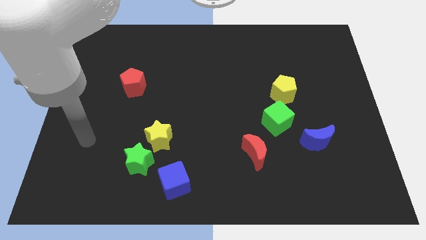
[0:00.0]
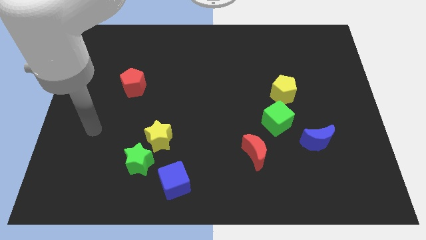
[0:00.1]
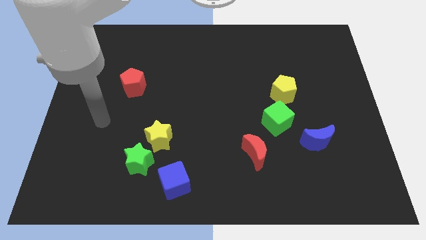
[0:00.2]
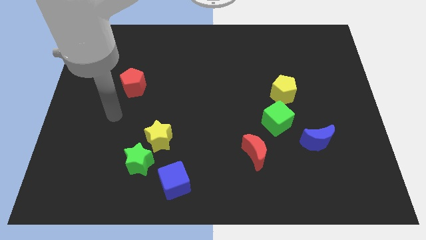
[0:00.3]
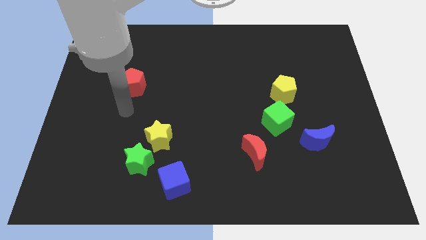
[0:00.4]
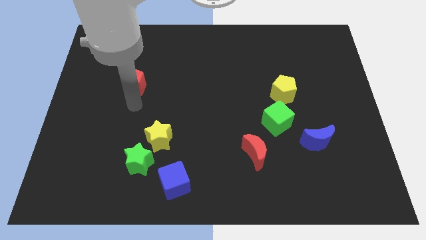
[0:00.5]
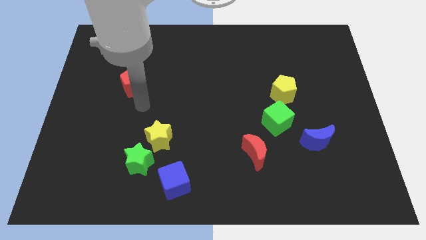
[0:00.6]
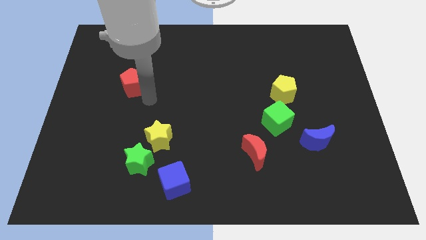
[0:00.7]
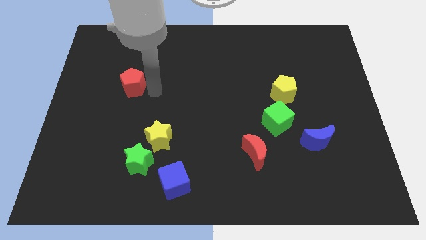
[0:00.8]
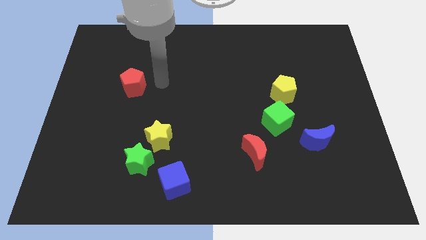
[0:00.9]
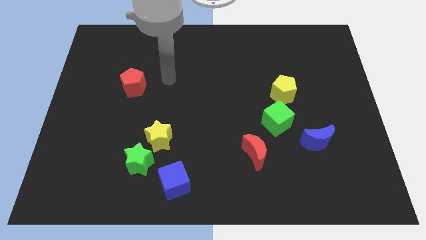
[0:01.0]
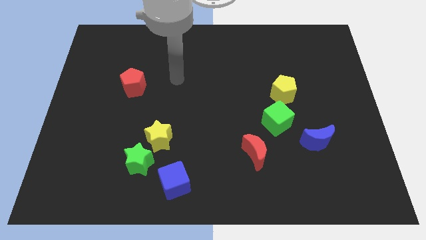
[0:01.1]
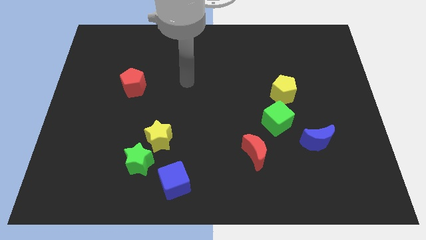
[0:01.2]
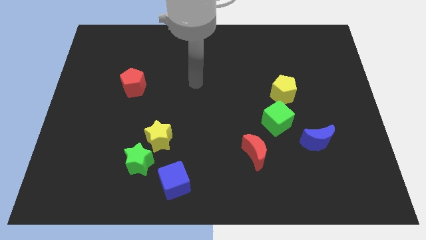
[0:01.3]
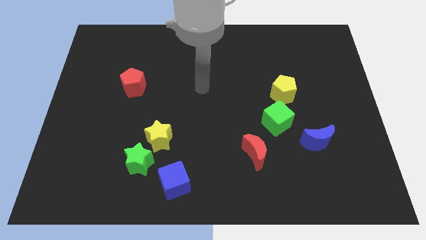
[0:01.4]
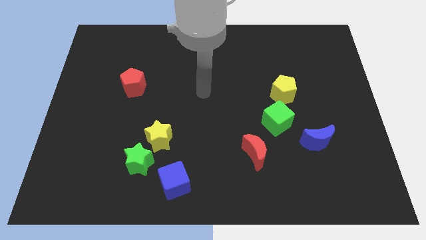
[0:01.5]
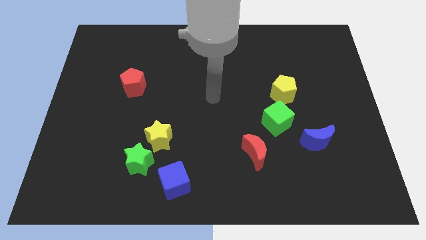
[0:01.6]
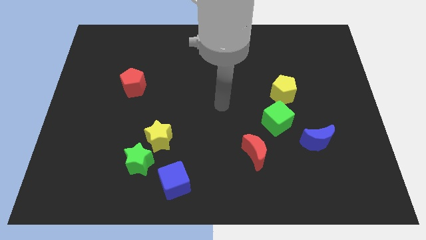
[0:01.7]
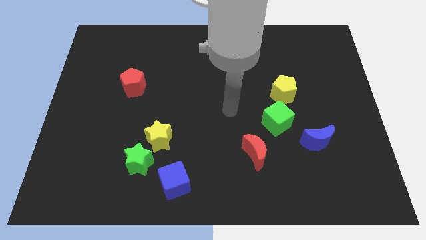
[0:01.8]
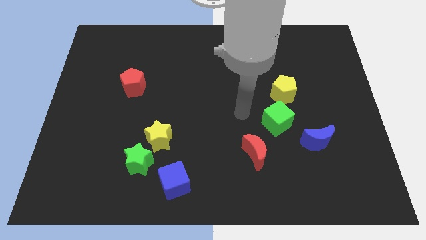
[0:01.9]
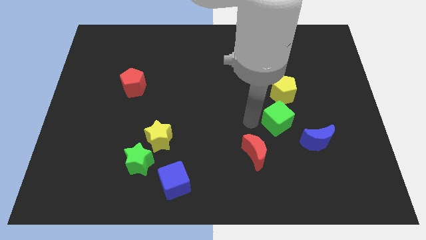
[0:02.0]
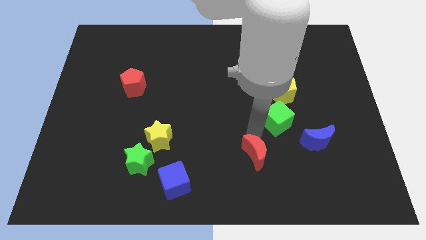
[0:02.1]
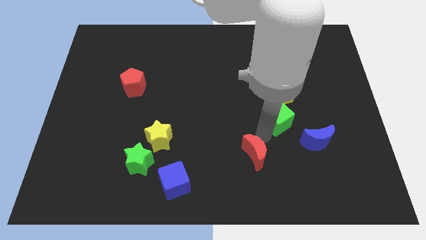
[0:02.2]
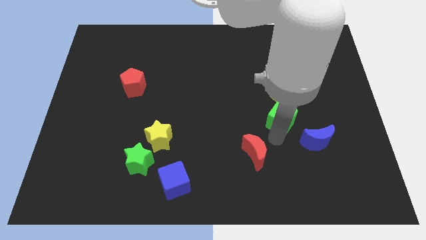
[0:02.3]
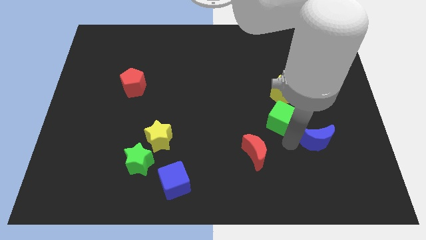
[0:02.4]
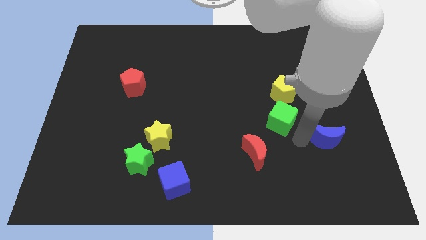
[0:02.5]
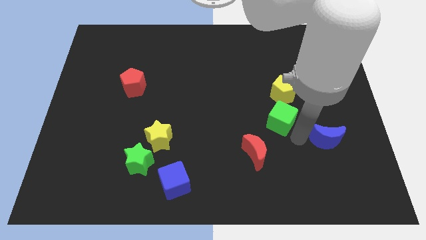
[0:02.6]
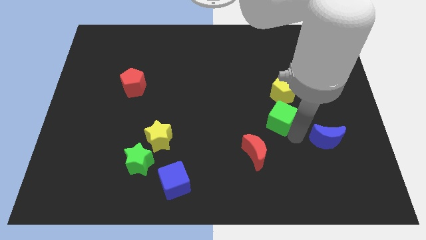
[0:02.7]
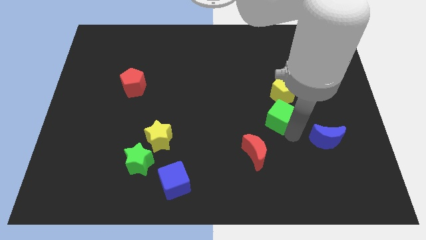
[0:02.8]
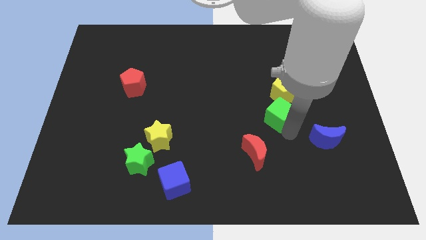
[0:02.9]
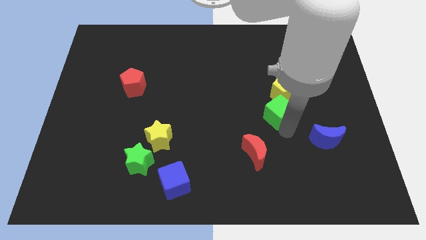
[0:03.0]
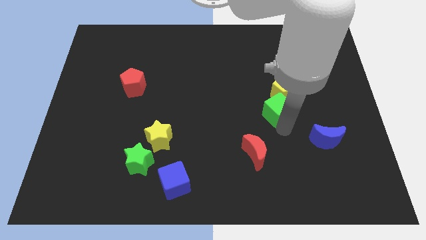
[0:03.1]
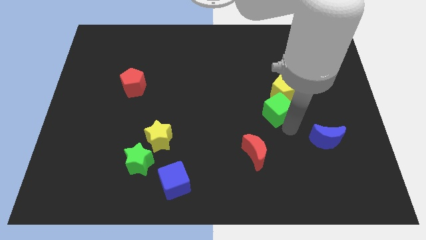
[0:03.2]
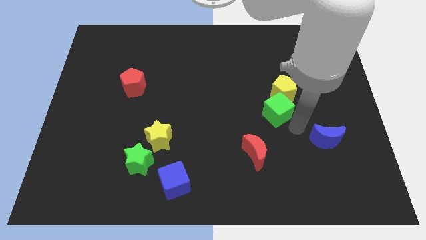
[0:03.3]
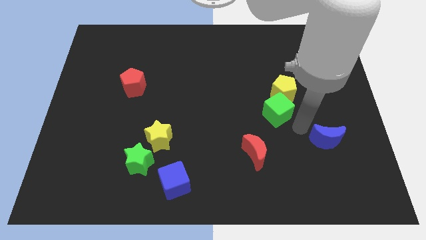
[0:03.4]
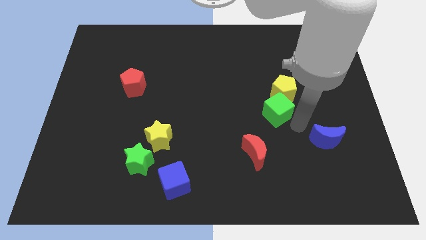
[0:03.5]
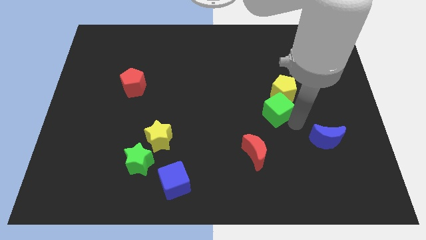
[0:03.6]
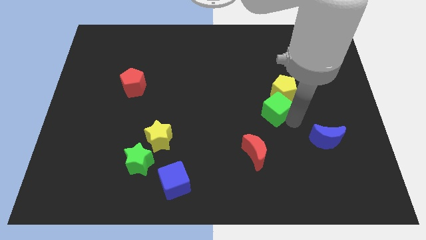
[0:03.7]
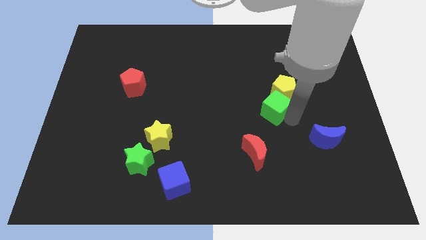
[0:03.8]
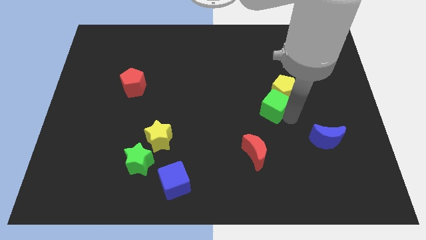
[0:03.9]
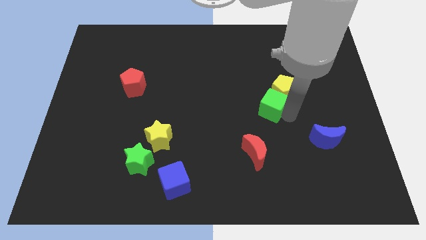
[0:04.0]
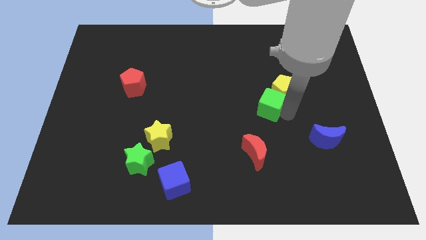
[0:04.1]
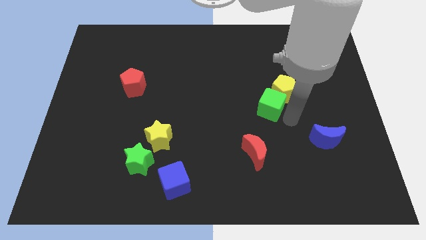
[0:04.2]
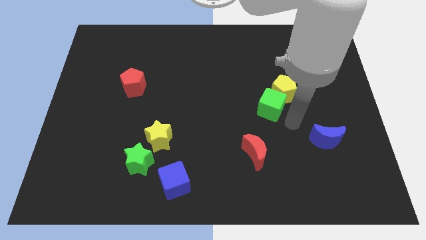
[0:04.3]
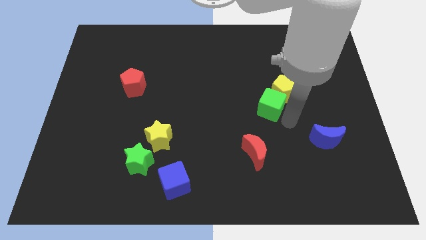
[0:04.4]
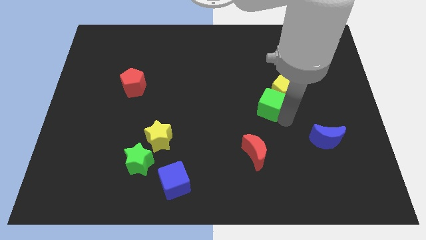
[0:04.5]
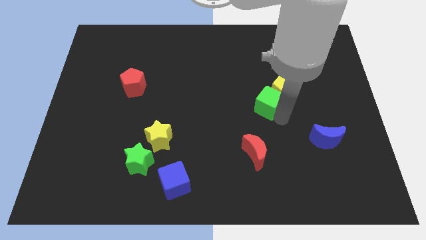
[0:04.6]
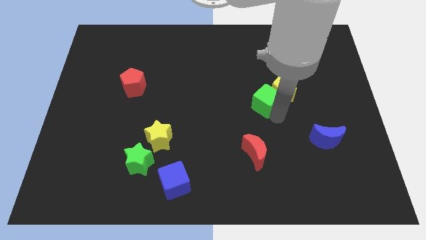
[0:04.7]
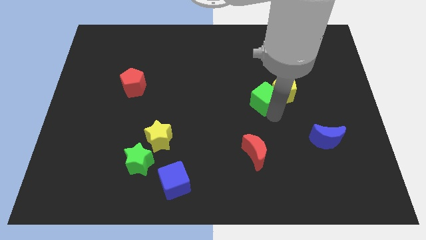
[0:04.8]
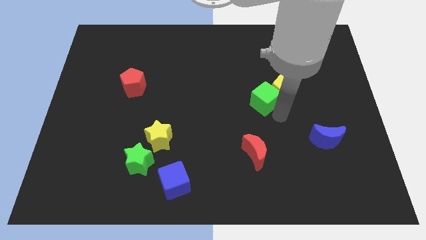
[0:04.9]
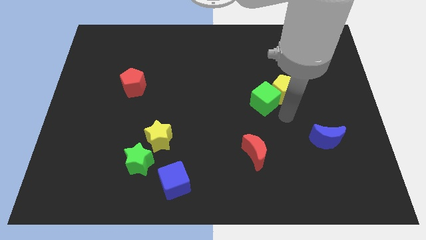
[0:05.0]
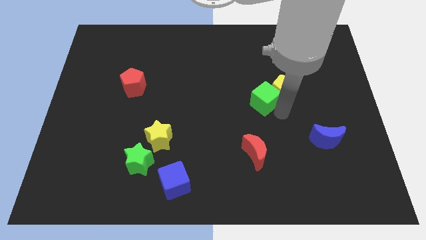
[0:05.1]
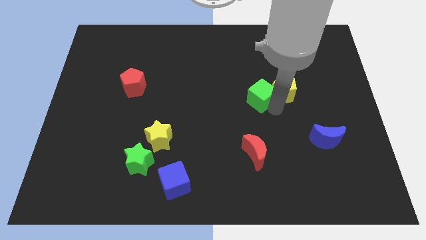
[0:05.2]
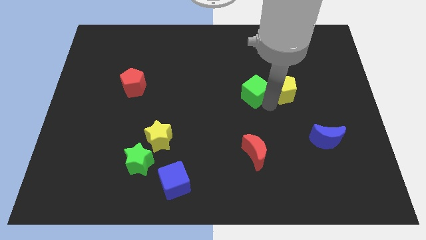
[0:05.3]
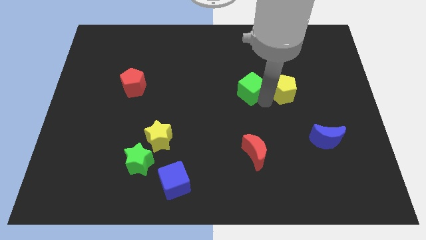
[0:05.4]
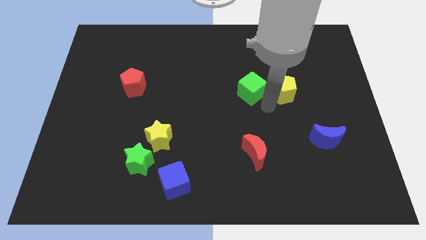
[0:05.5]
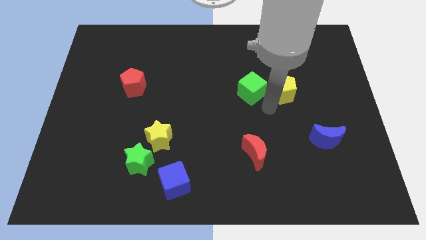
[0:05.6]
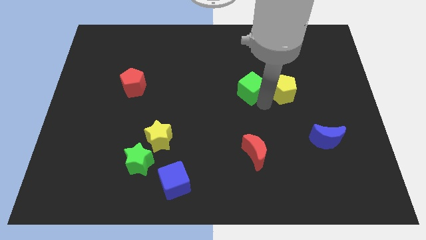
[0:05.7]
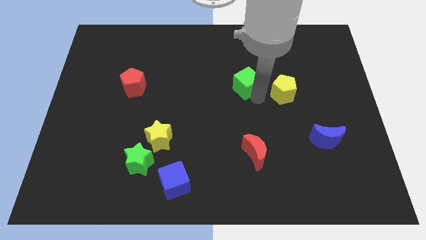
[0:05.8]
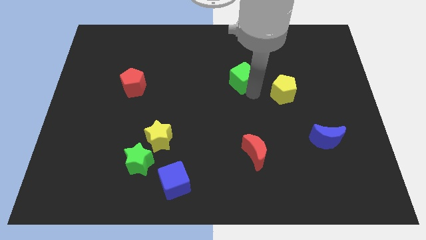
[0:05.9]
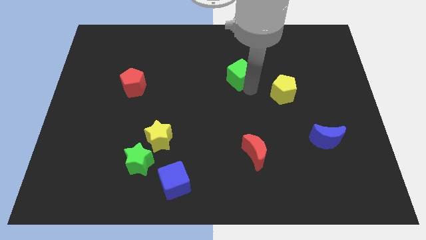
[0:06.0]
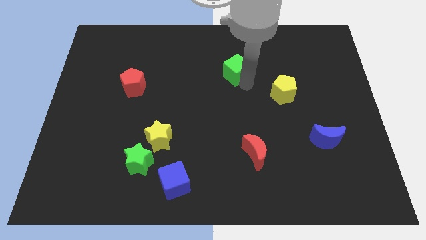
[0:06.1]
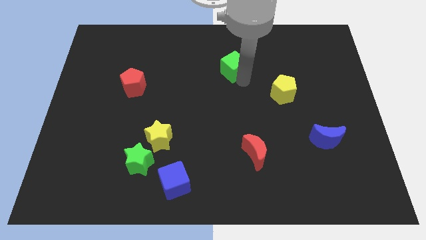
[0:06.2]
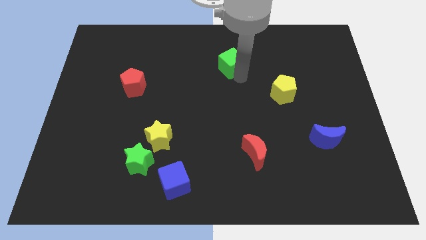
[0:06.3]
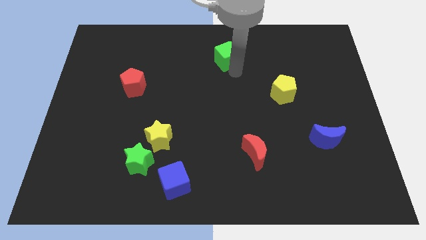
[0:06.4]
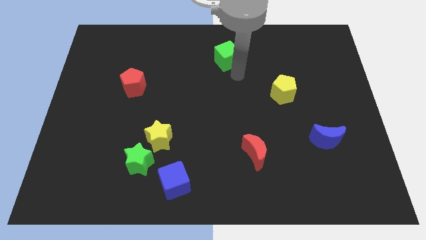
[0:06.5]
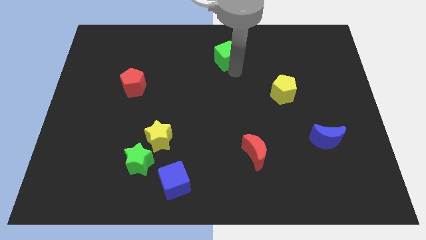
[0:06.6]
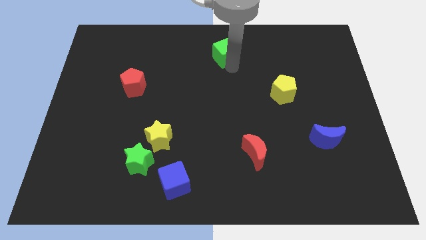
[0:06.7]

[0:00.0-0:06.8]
slide the green cube to the towards your base
